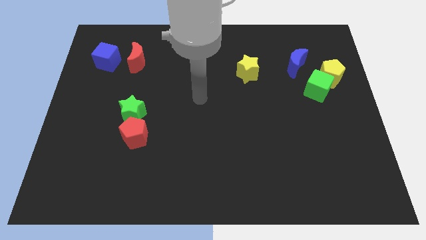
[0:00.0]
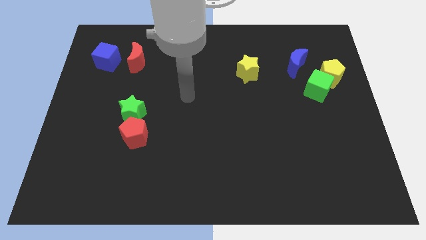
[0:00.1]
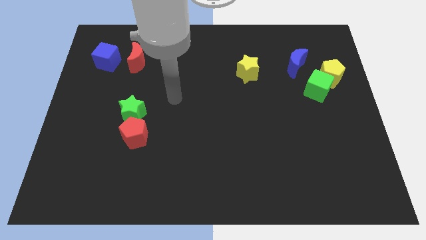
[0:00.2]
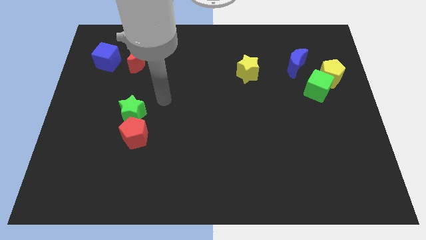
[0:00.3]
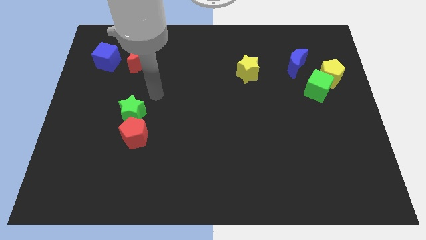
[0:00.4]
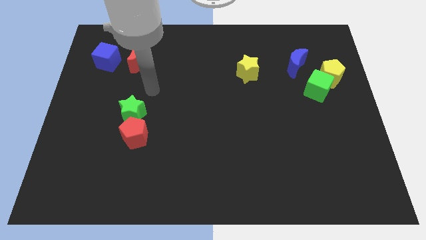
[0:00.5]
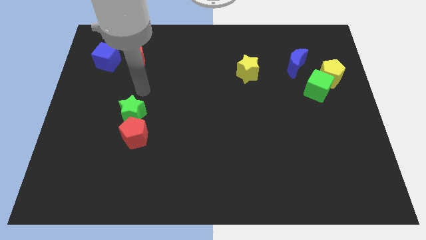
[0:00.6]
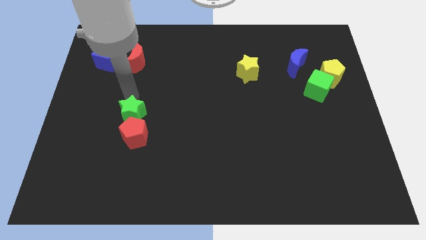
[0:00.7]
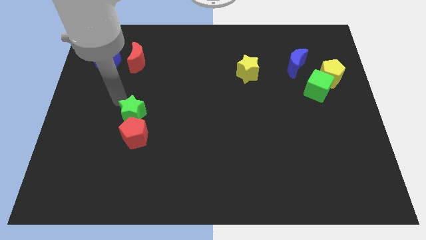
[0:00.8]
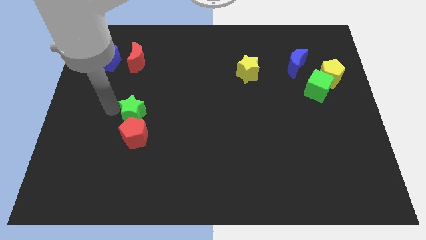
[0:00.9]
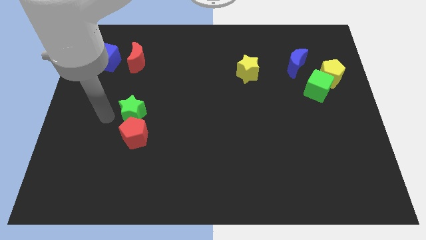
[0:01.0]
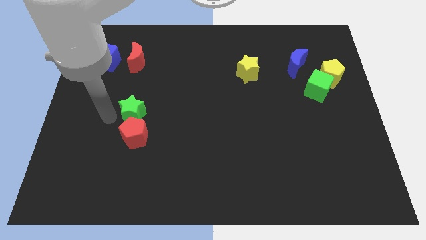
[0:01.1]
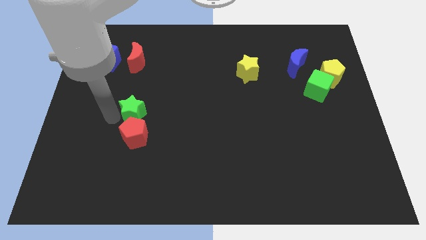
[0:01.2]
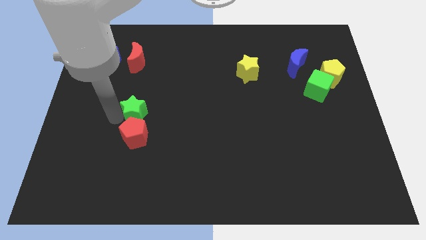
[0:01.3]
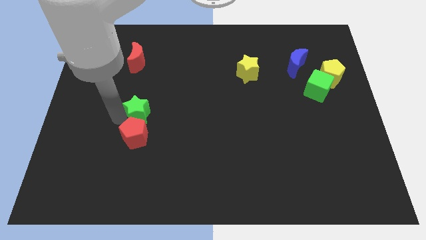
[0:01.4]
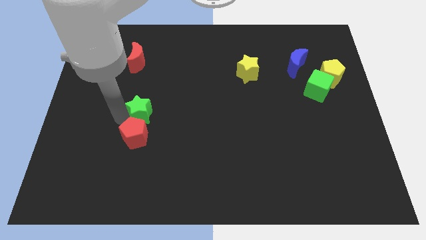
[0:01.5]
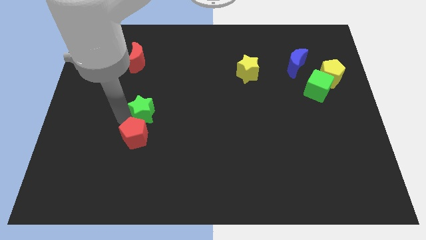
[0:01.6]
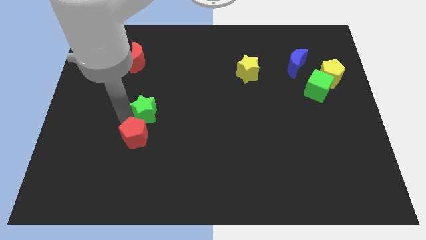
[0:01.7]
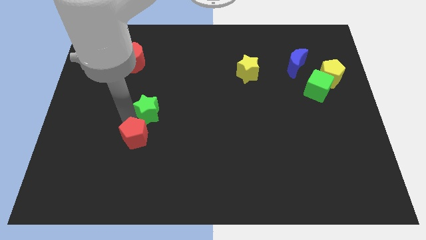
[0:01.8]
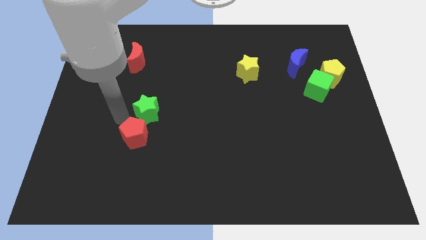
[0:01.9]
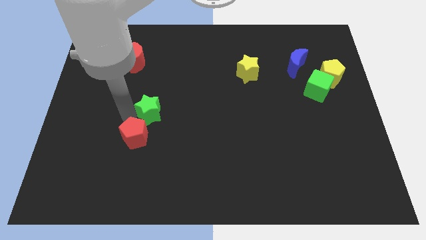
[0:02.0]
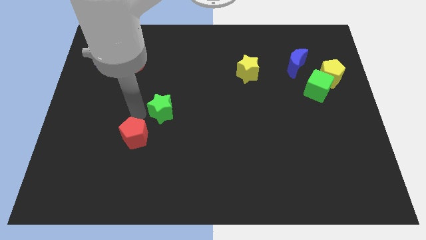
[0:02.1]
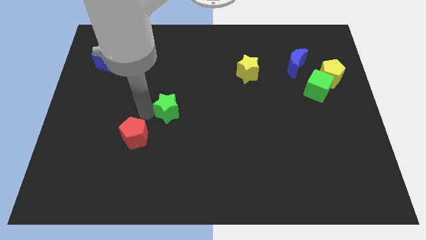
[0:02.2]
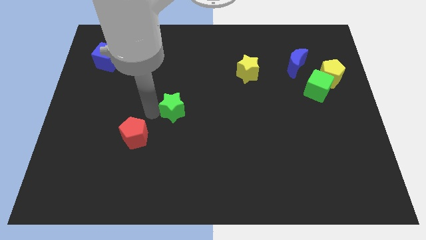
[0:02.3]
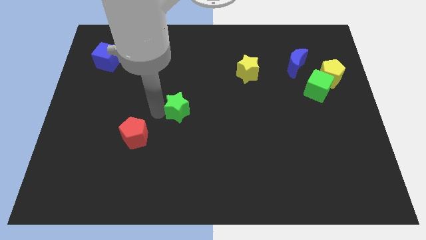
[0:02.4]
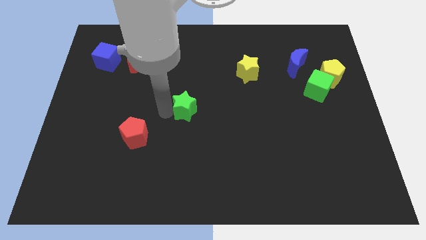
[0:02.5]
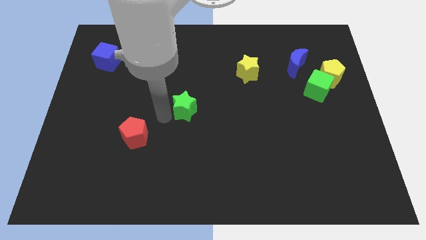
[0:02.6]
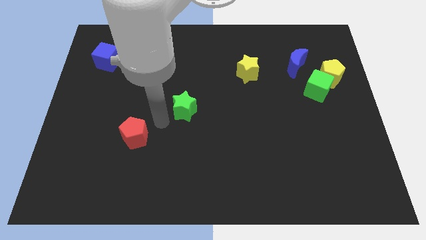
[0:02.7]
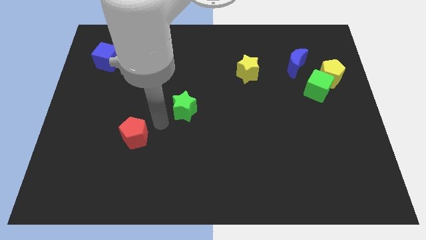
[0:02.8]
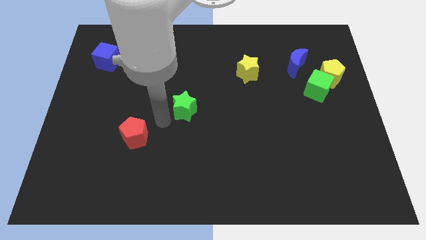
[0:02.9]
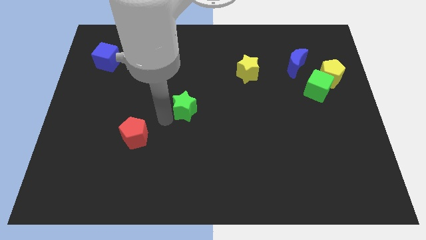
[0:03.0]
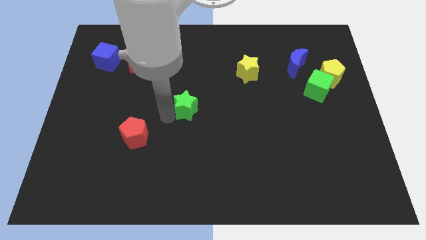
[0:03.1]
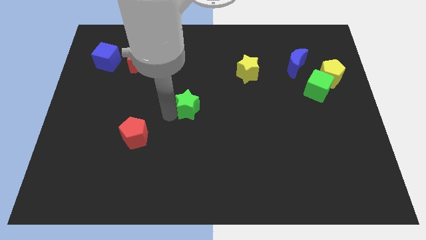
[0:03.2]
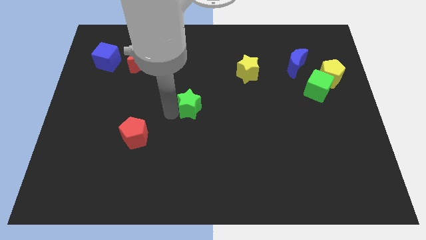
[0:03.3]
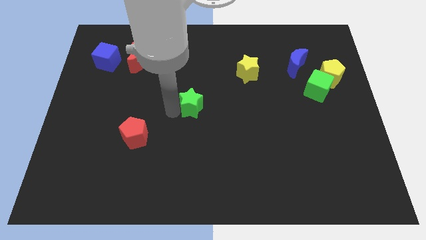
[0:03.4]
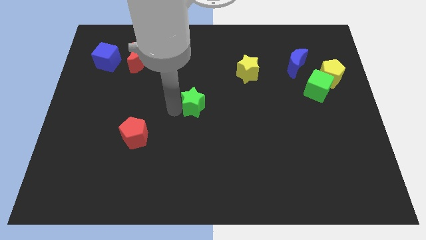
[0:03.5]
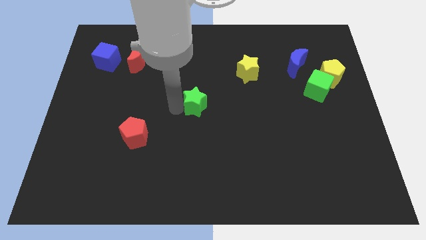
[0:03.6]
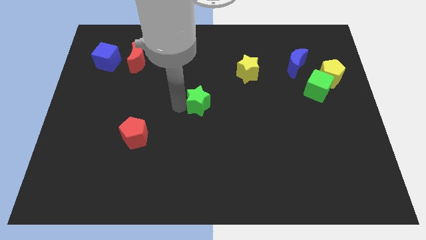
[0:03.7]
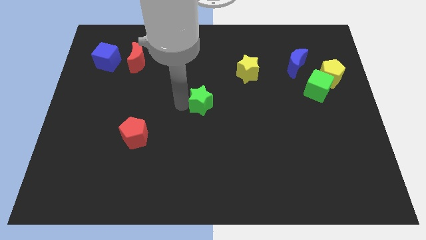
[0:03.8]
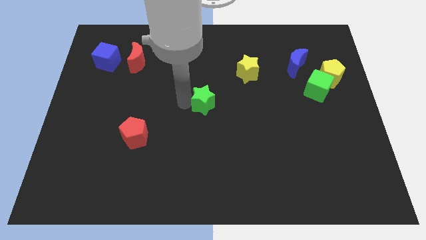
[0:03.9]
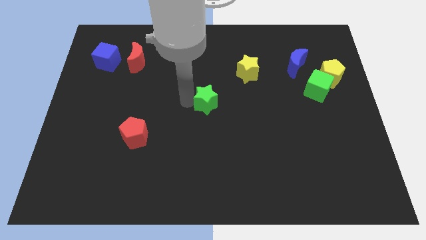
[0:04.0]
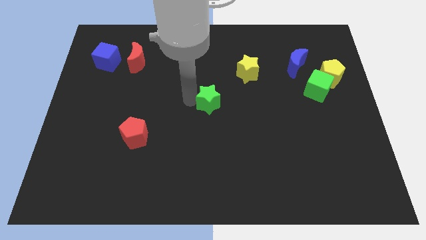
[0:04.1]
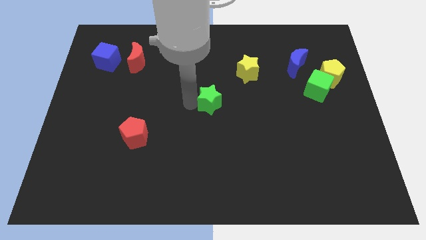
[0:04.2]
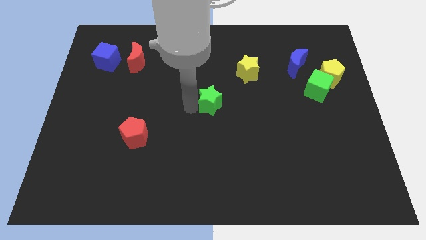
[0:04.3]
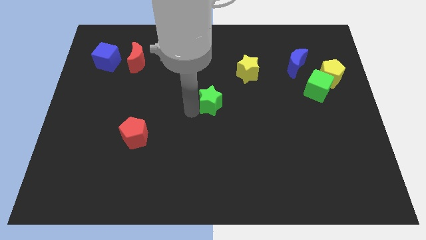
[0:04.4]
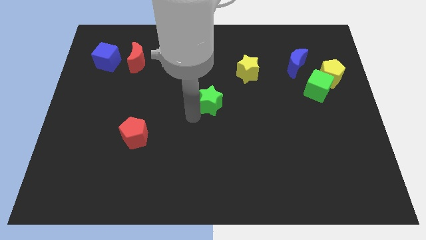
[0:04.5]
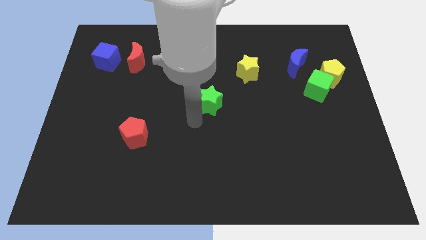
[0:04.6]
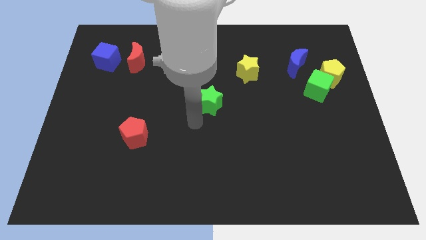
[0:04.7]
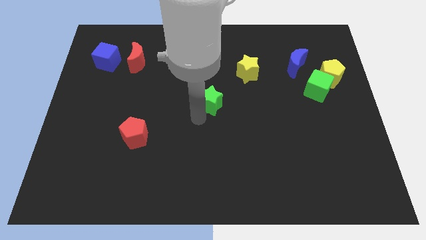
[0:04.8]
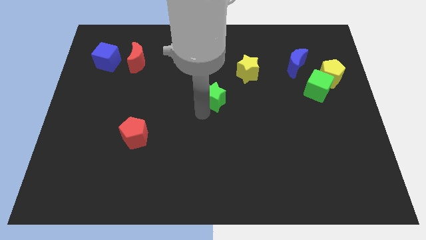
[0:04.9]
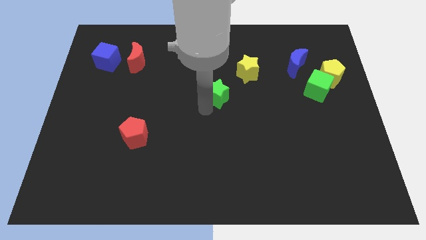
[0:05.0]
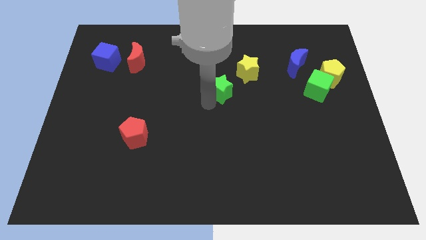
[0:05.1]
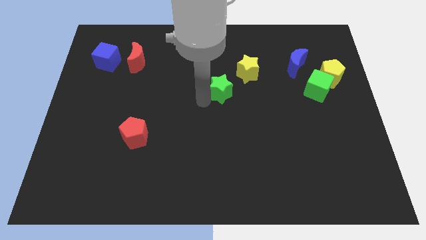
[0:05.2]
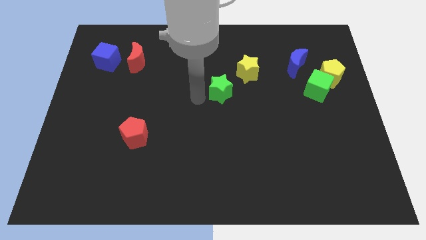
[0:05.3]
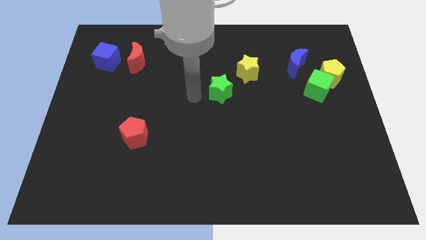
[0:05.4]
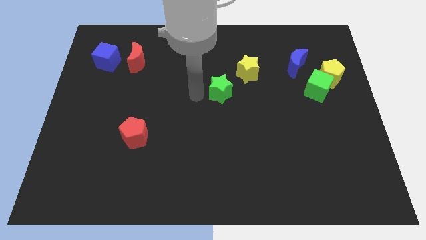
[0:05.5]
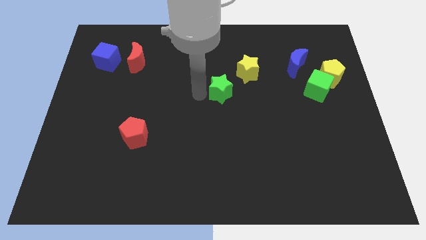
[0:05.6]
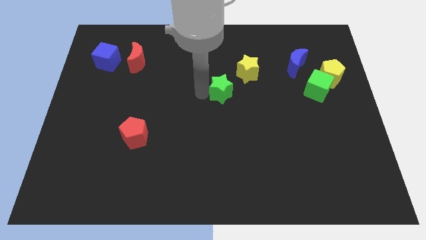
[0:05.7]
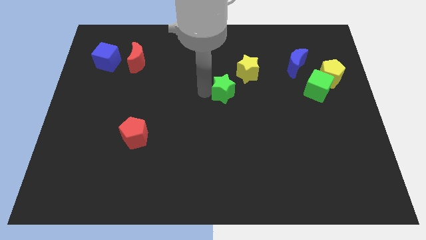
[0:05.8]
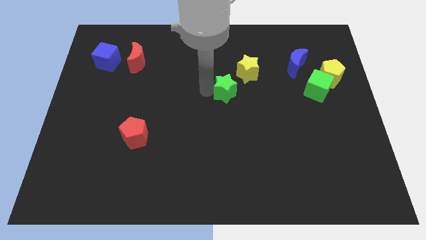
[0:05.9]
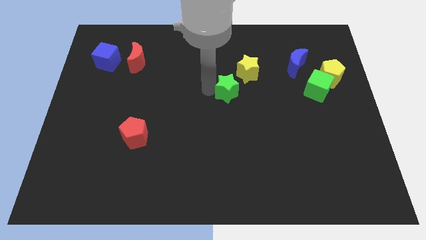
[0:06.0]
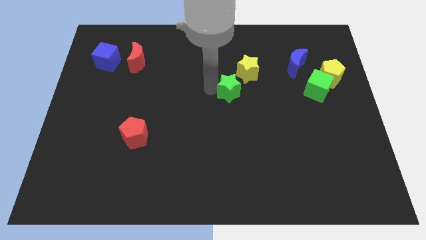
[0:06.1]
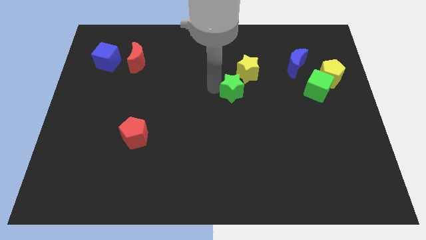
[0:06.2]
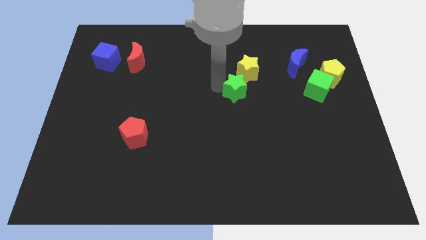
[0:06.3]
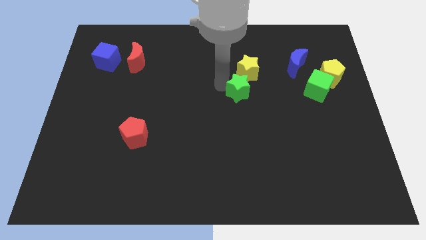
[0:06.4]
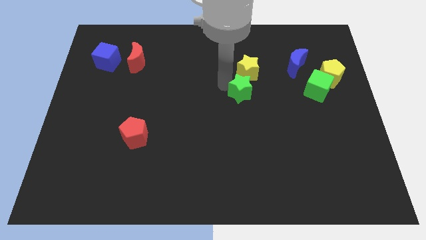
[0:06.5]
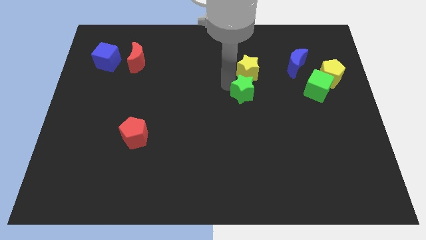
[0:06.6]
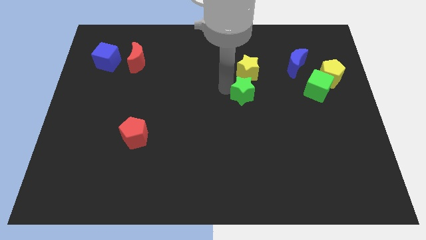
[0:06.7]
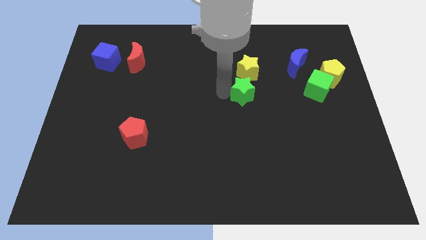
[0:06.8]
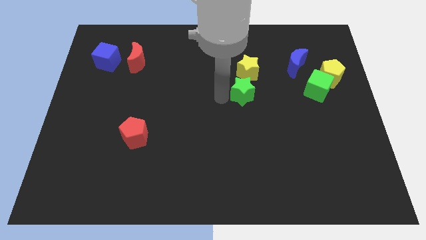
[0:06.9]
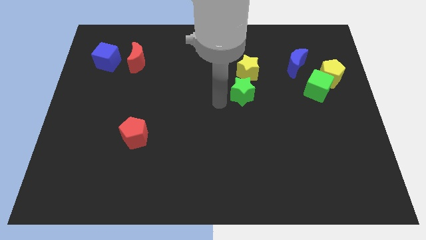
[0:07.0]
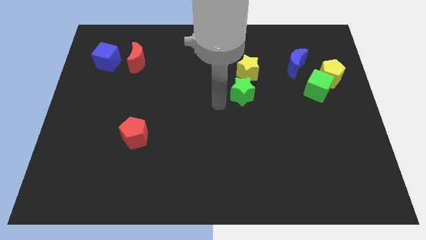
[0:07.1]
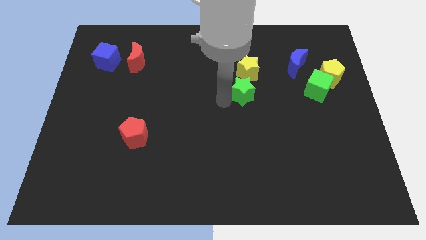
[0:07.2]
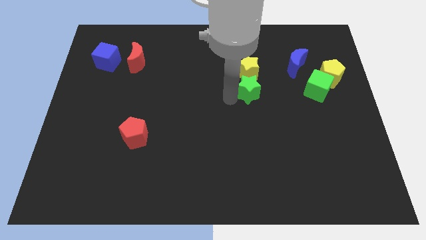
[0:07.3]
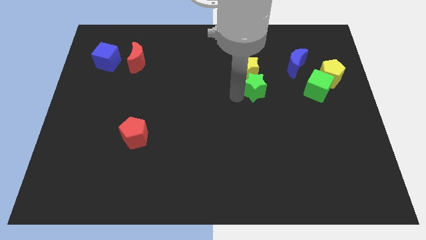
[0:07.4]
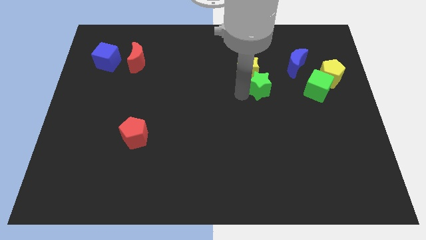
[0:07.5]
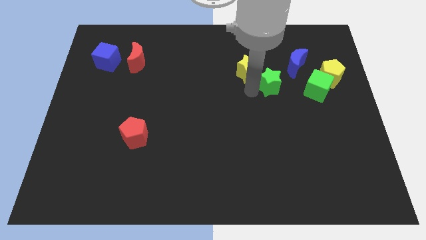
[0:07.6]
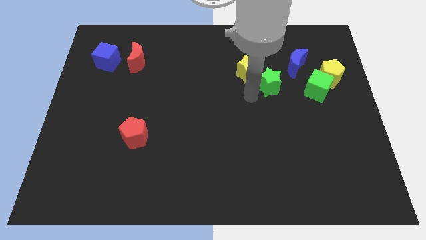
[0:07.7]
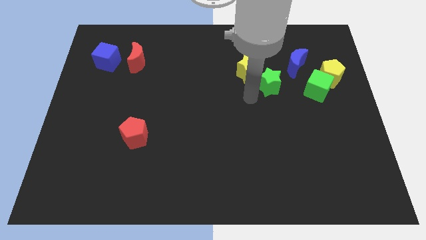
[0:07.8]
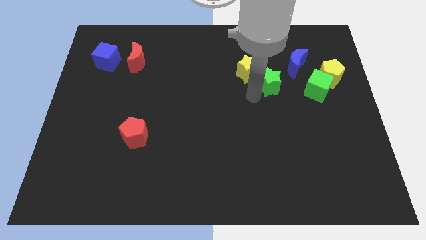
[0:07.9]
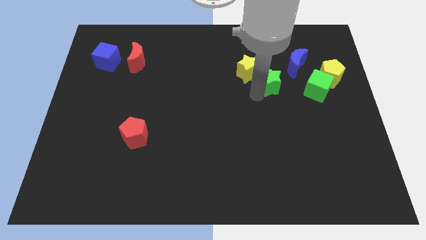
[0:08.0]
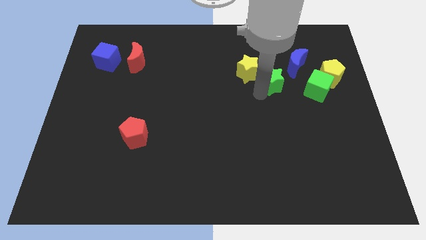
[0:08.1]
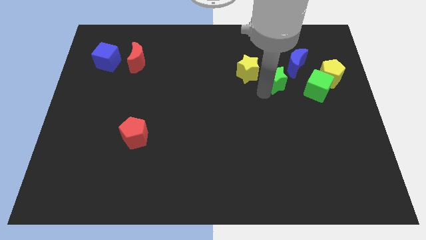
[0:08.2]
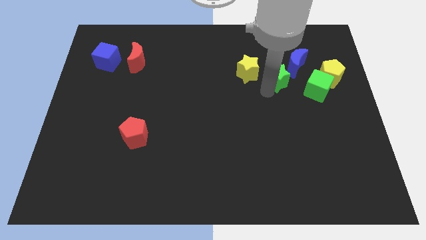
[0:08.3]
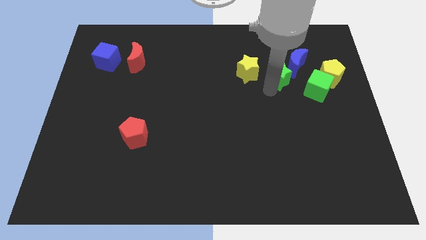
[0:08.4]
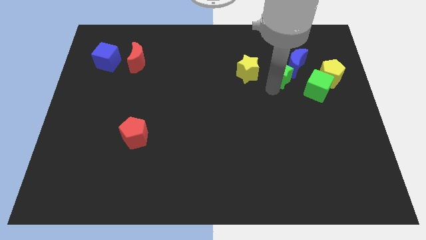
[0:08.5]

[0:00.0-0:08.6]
slide the green star close to the blue moon
